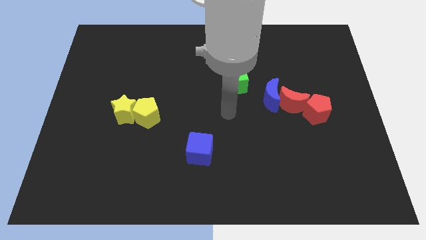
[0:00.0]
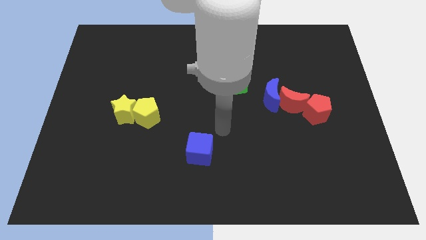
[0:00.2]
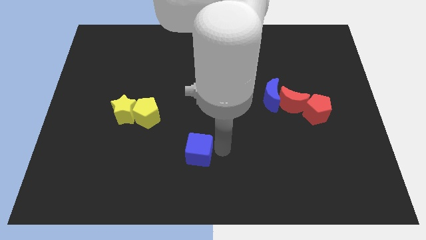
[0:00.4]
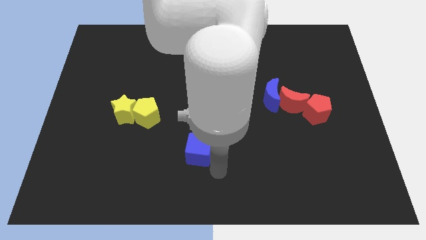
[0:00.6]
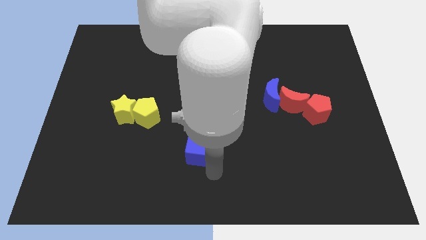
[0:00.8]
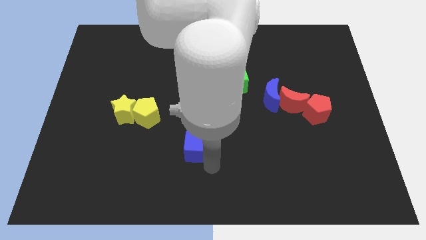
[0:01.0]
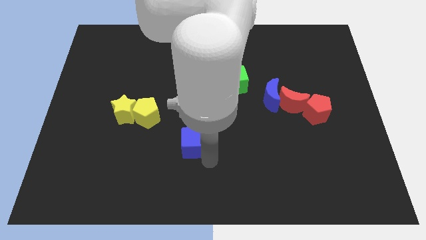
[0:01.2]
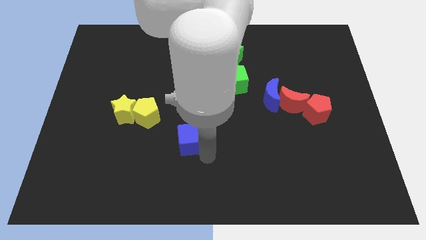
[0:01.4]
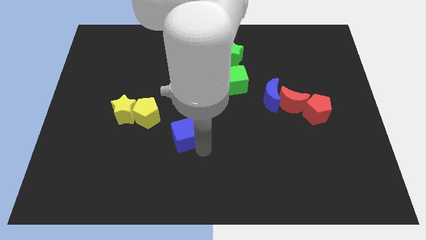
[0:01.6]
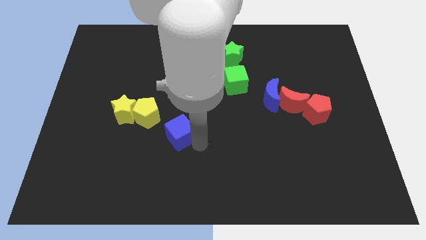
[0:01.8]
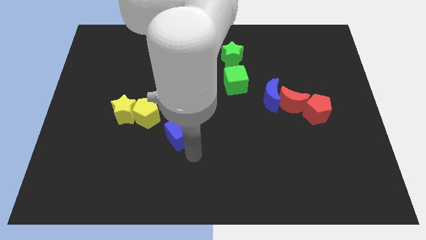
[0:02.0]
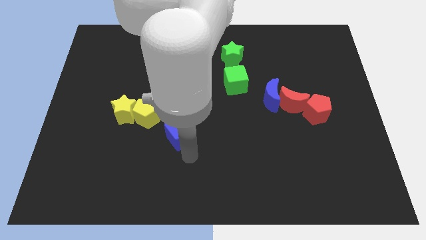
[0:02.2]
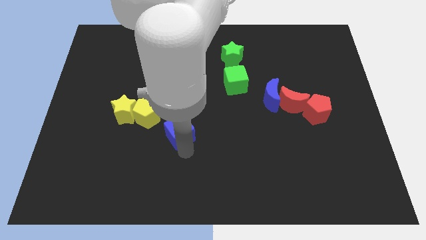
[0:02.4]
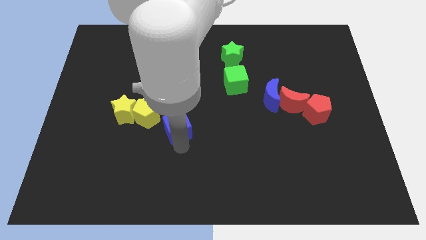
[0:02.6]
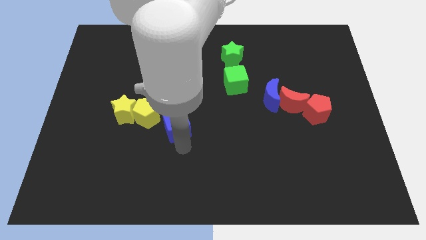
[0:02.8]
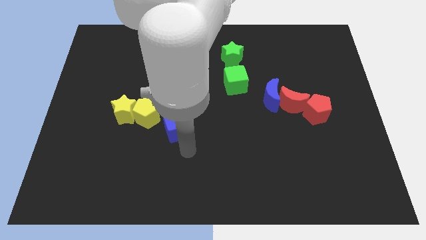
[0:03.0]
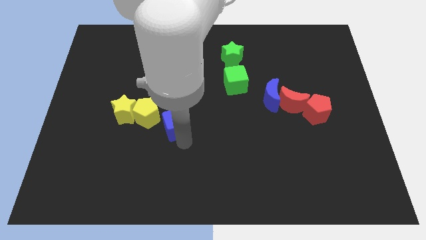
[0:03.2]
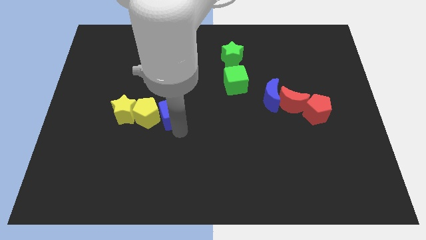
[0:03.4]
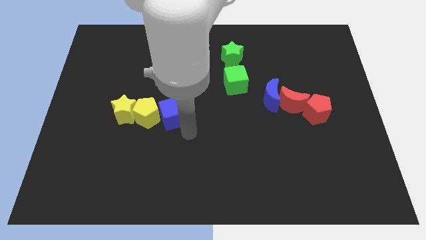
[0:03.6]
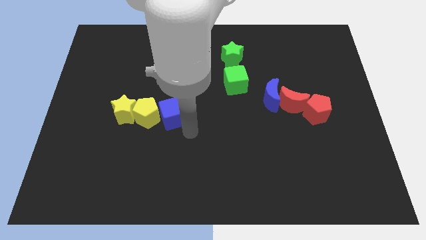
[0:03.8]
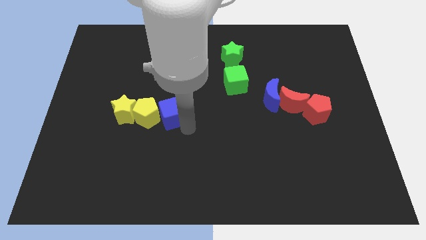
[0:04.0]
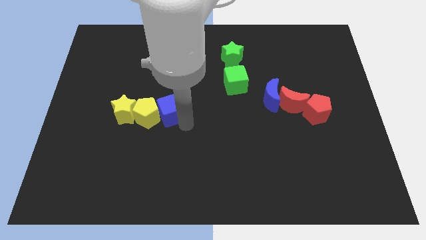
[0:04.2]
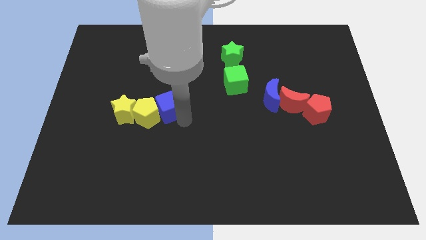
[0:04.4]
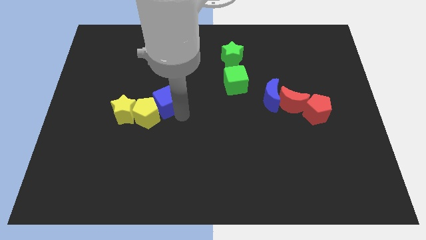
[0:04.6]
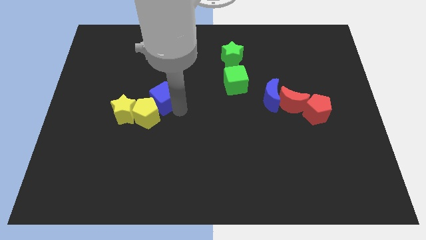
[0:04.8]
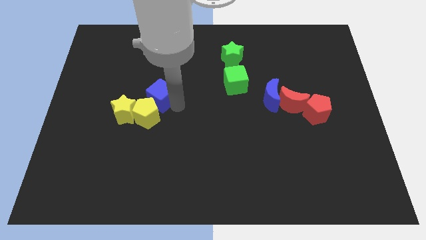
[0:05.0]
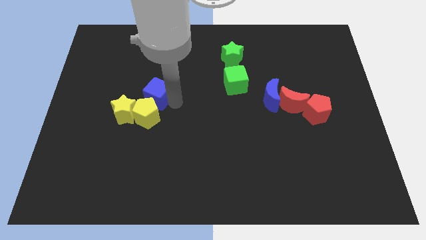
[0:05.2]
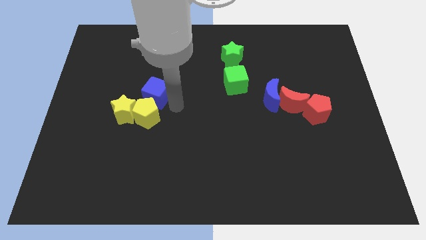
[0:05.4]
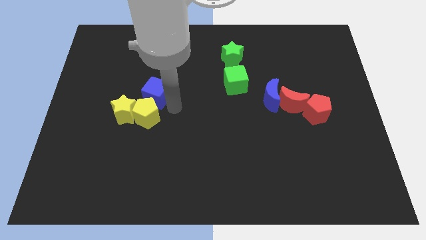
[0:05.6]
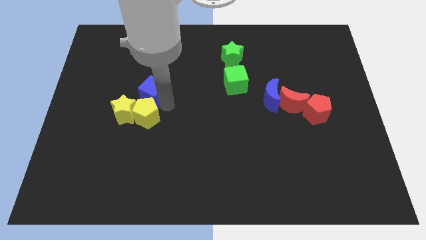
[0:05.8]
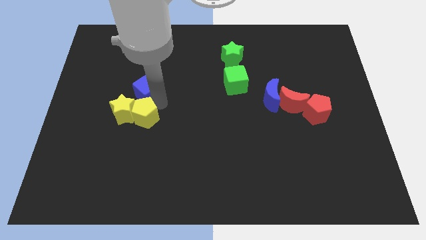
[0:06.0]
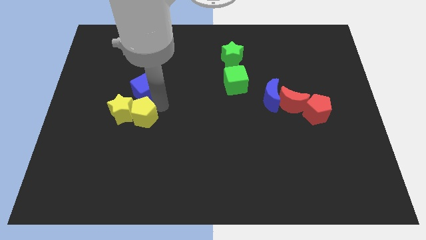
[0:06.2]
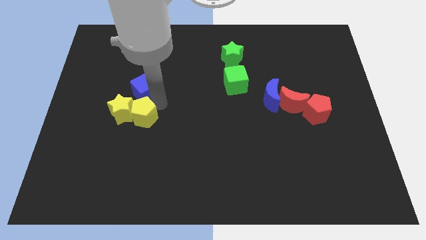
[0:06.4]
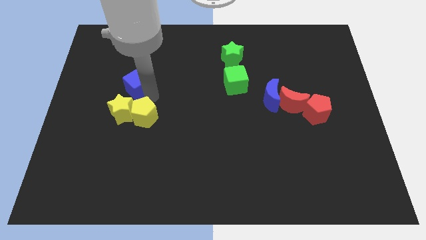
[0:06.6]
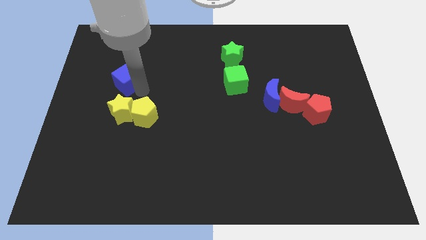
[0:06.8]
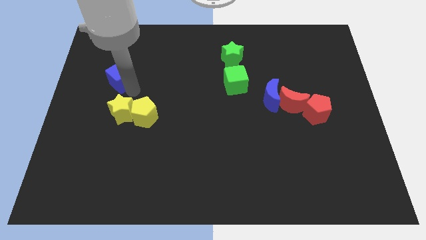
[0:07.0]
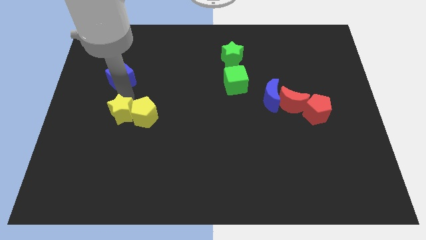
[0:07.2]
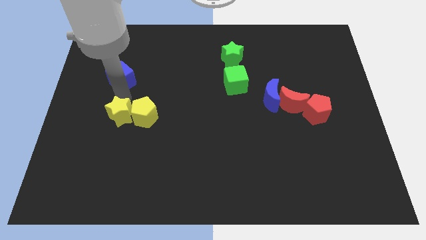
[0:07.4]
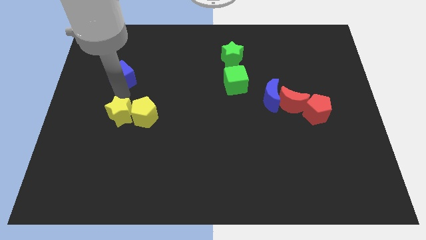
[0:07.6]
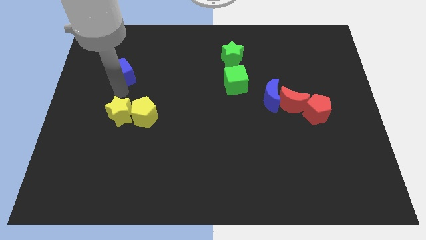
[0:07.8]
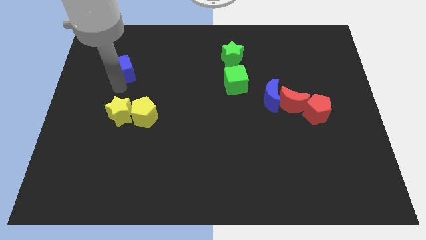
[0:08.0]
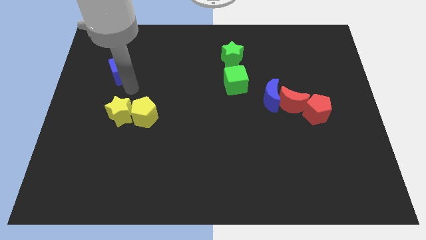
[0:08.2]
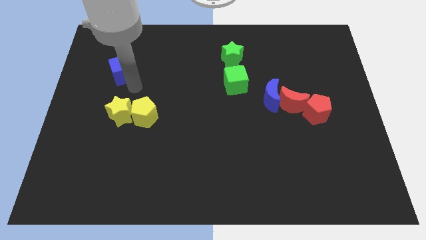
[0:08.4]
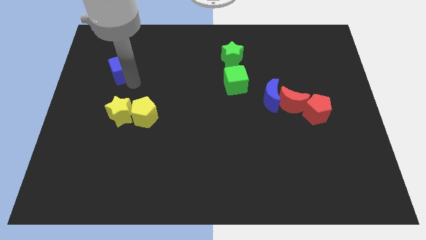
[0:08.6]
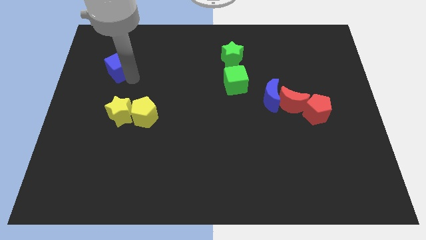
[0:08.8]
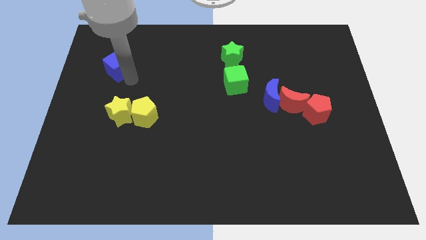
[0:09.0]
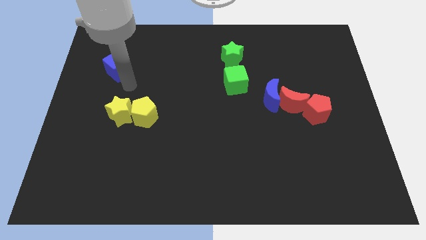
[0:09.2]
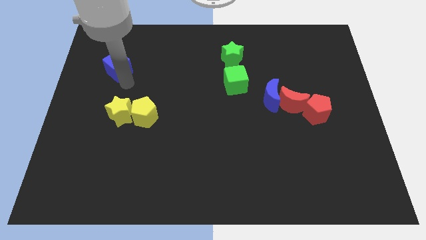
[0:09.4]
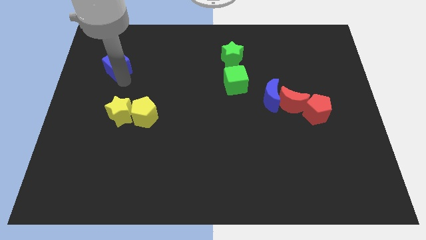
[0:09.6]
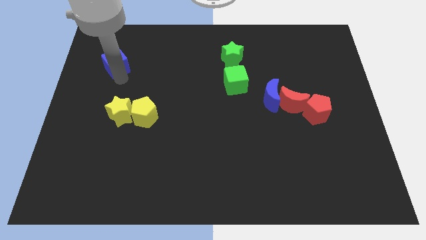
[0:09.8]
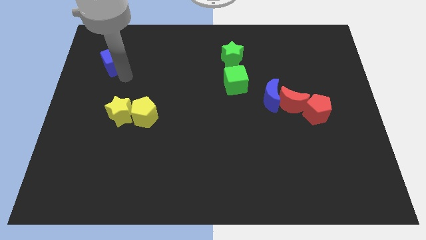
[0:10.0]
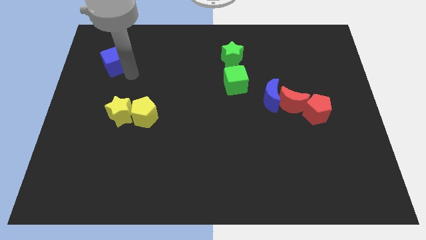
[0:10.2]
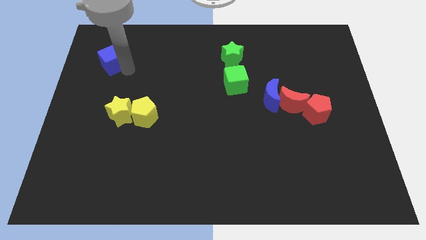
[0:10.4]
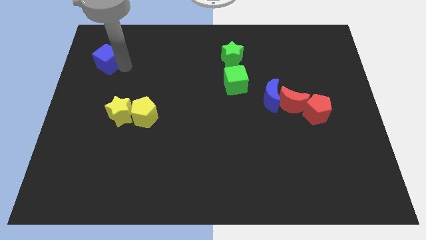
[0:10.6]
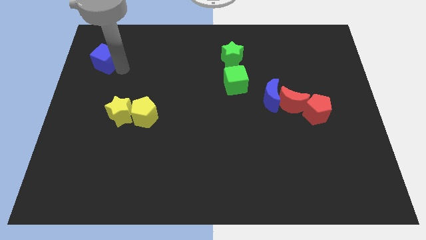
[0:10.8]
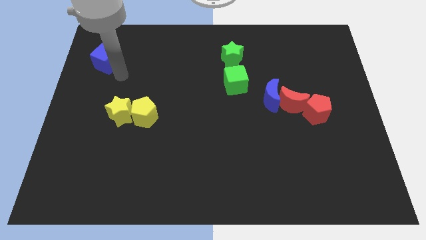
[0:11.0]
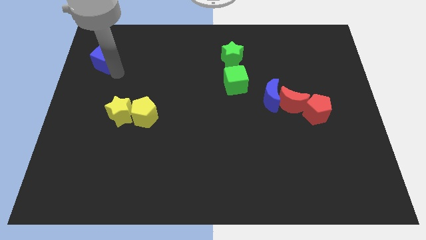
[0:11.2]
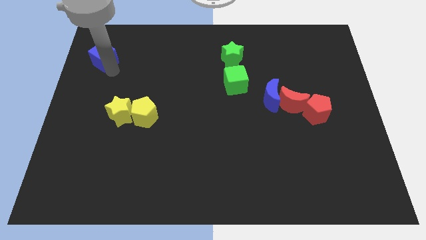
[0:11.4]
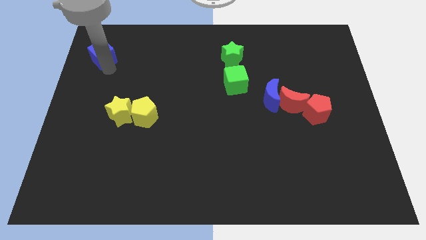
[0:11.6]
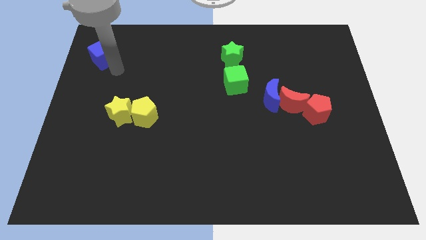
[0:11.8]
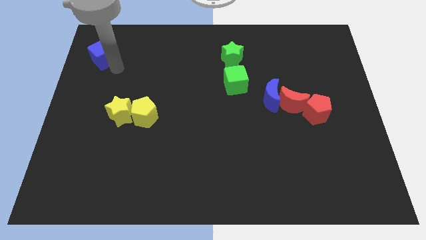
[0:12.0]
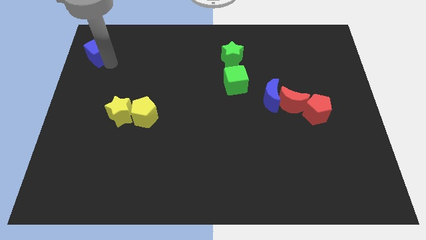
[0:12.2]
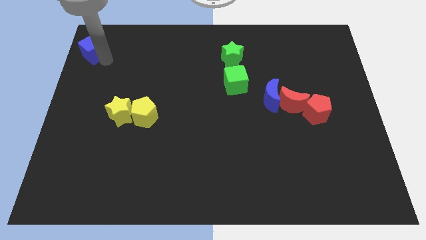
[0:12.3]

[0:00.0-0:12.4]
slide the blue cube to the top left corner

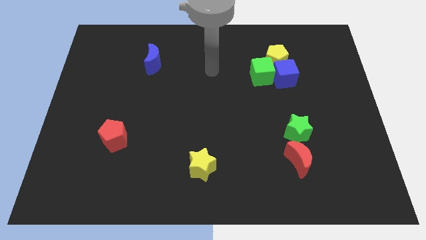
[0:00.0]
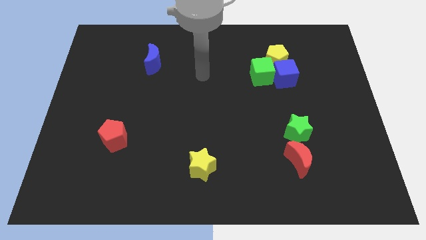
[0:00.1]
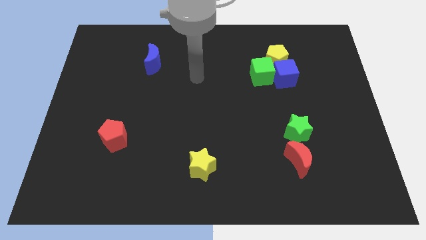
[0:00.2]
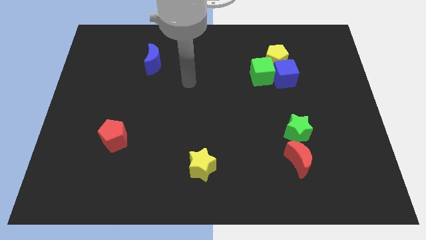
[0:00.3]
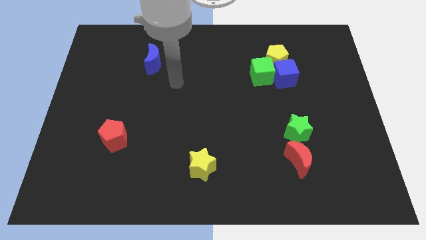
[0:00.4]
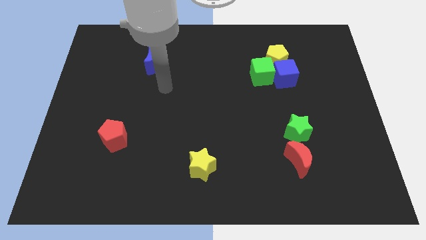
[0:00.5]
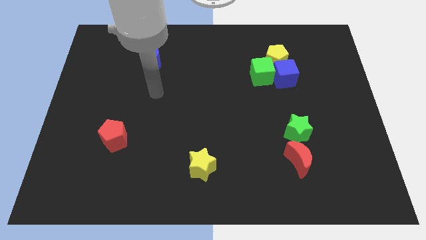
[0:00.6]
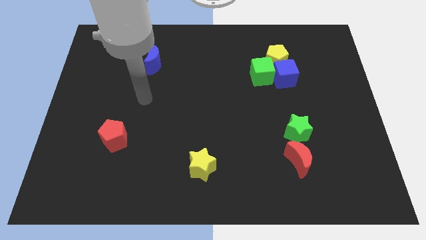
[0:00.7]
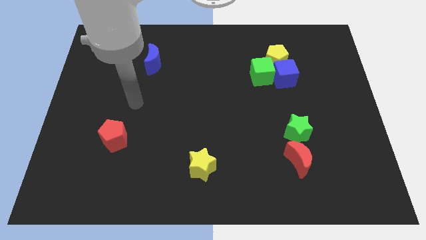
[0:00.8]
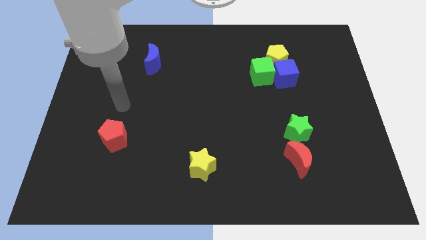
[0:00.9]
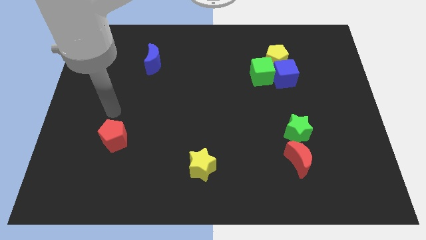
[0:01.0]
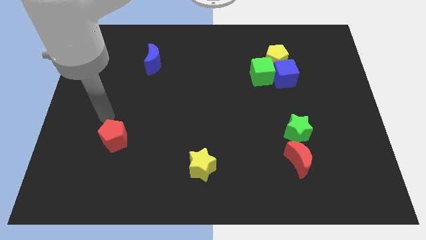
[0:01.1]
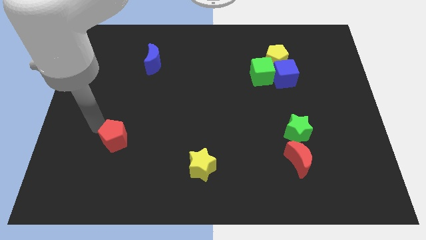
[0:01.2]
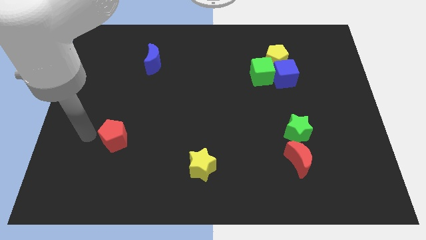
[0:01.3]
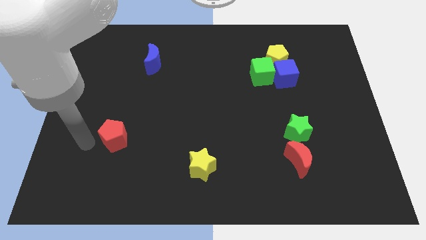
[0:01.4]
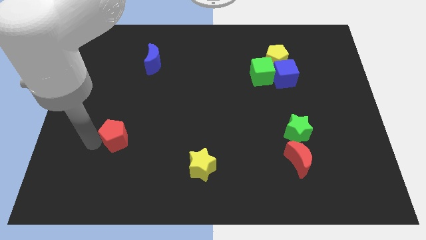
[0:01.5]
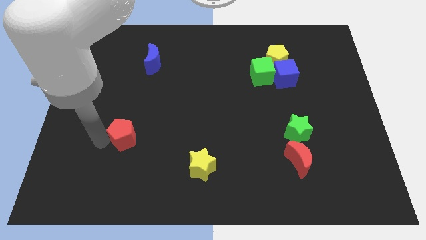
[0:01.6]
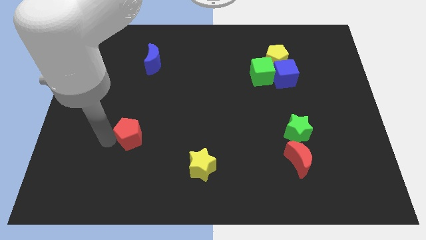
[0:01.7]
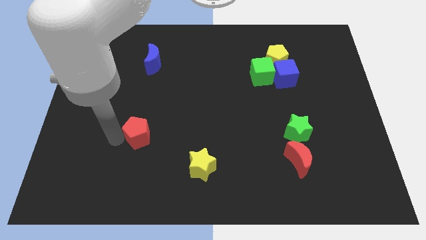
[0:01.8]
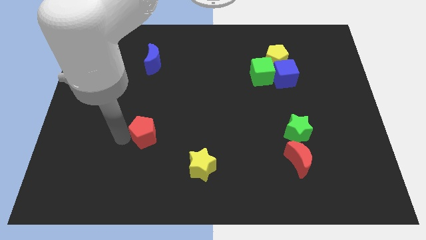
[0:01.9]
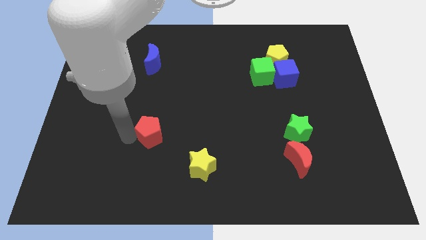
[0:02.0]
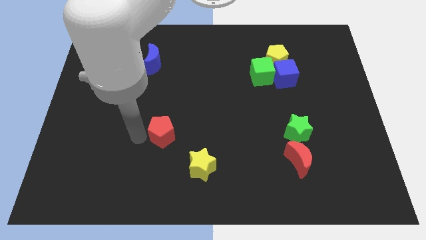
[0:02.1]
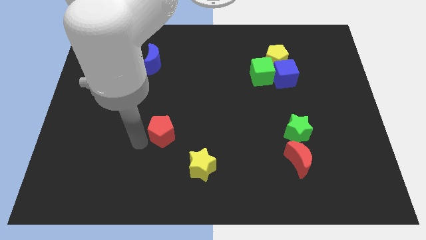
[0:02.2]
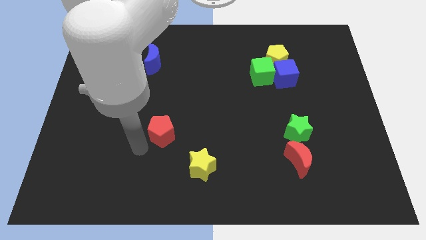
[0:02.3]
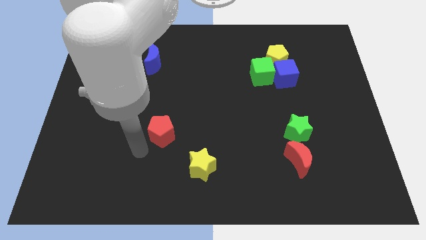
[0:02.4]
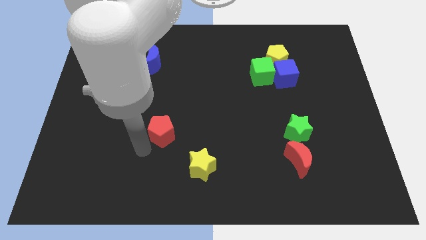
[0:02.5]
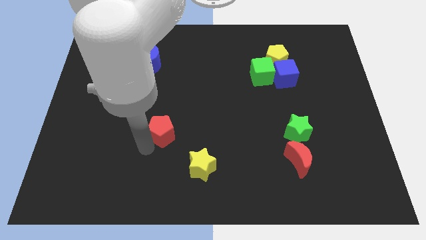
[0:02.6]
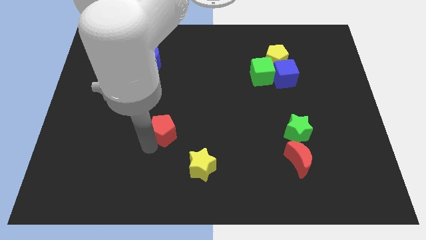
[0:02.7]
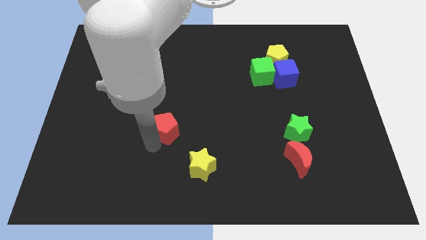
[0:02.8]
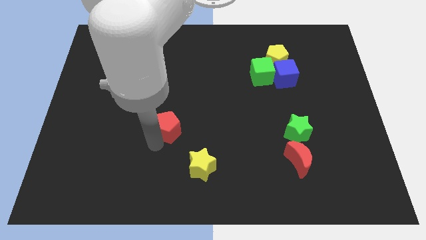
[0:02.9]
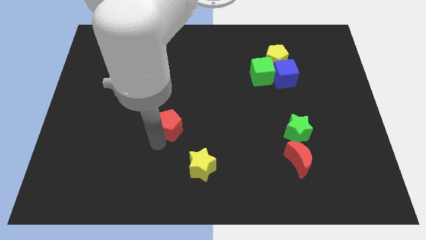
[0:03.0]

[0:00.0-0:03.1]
slide the red pentagon to the center
